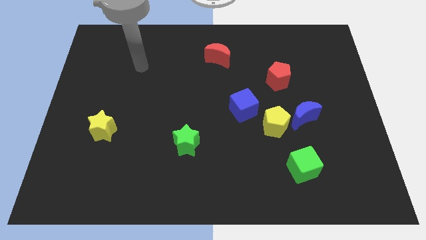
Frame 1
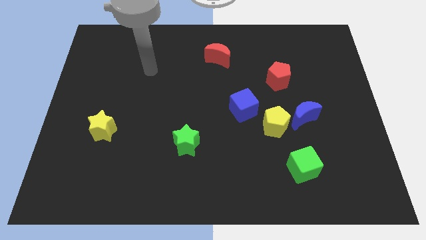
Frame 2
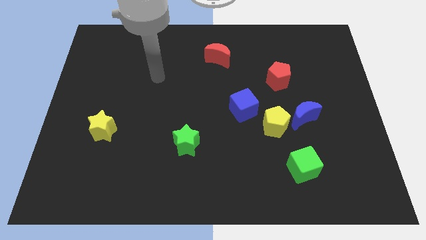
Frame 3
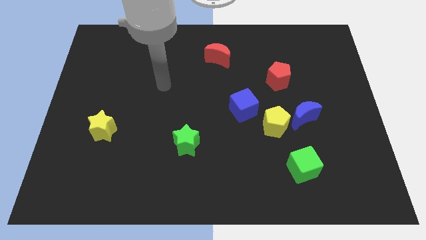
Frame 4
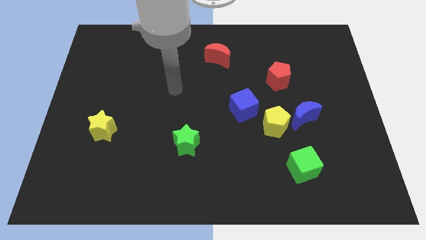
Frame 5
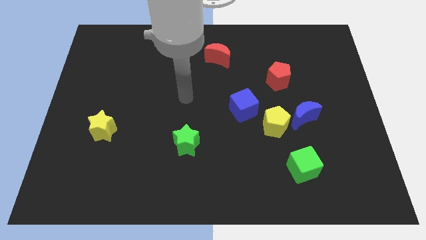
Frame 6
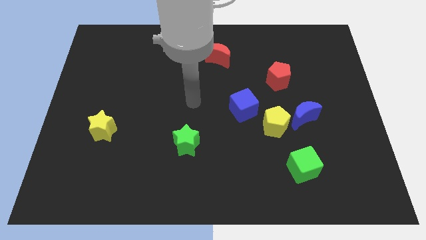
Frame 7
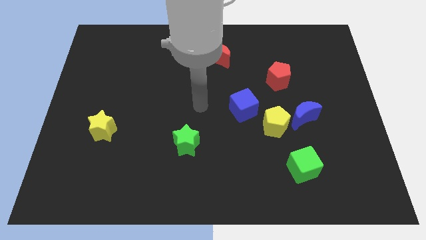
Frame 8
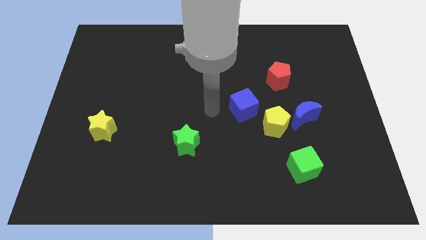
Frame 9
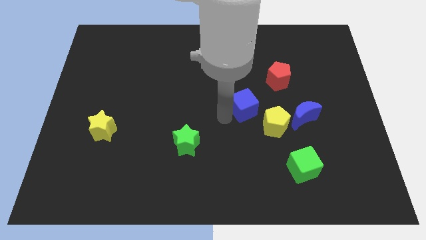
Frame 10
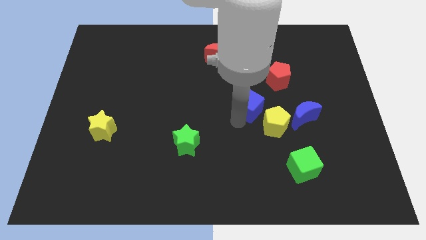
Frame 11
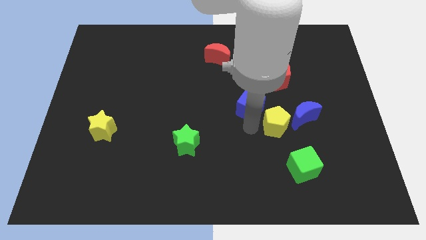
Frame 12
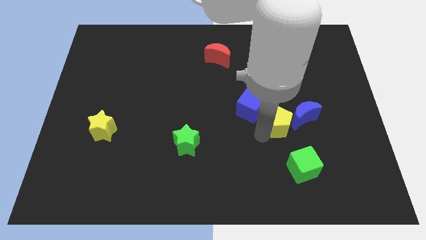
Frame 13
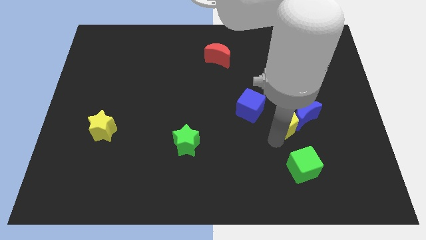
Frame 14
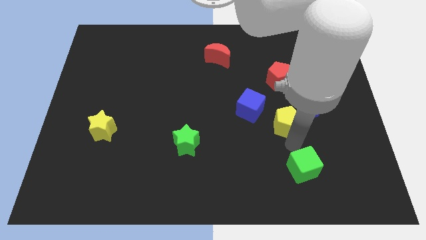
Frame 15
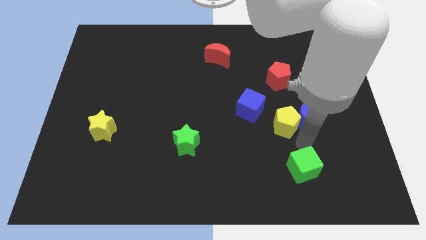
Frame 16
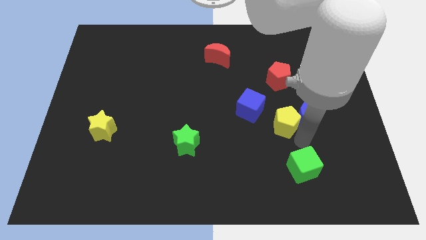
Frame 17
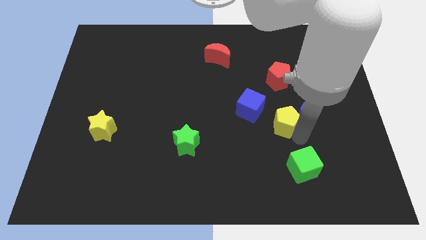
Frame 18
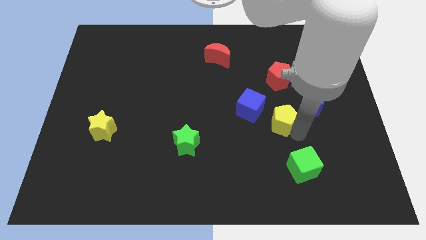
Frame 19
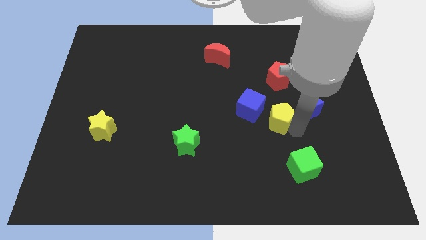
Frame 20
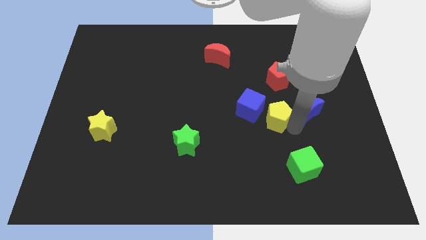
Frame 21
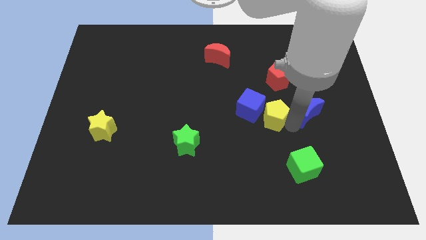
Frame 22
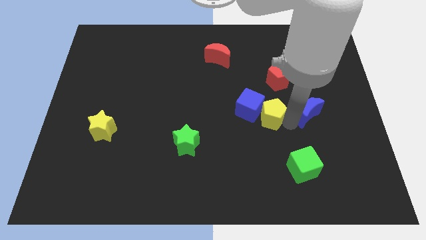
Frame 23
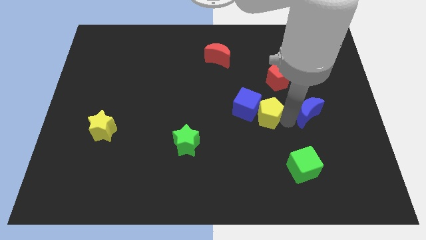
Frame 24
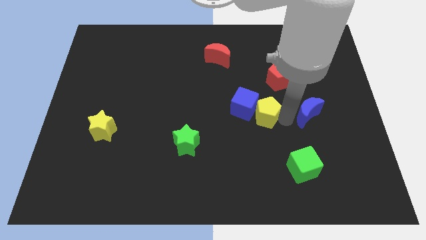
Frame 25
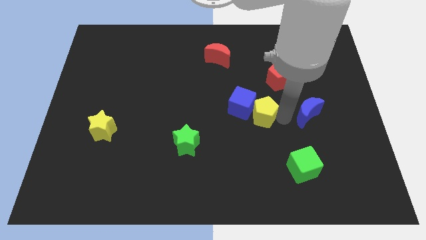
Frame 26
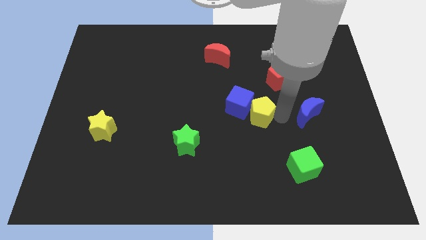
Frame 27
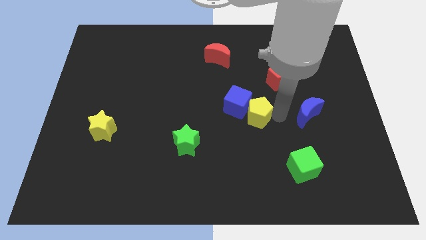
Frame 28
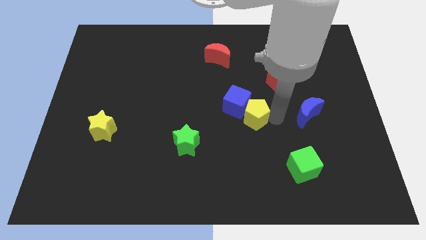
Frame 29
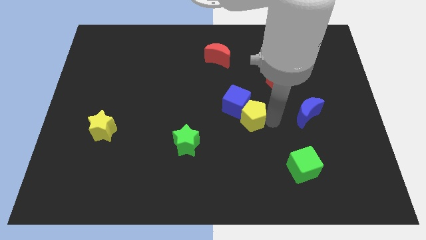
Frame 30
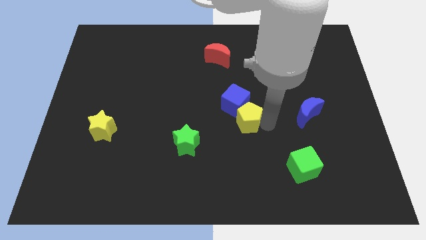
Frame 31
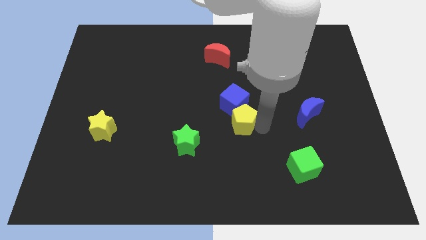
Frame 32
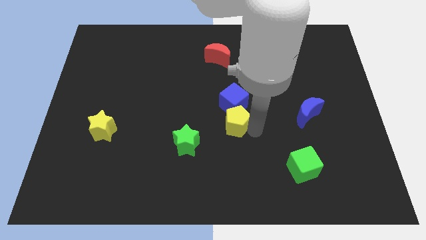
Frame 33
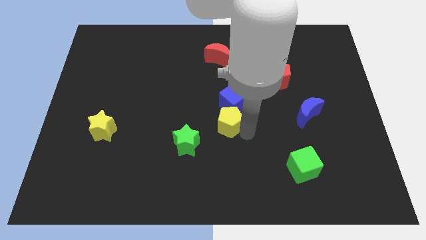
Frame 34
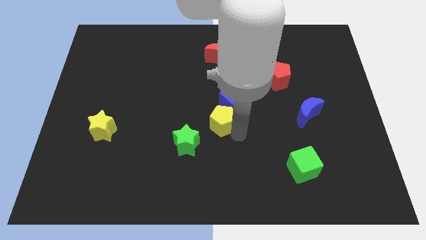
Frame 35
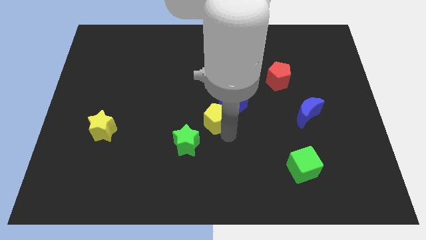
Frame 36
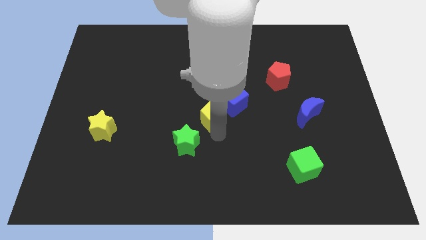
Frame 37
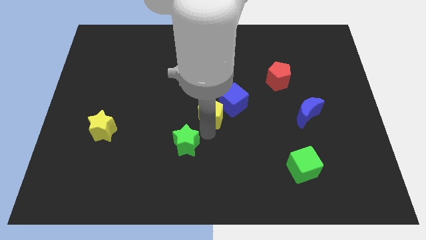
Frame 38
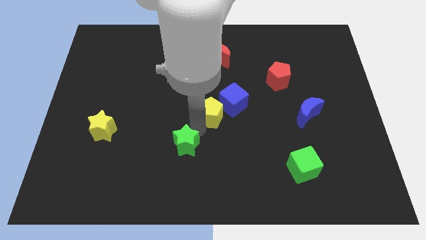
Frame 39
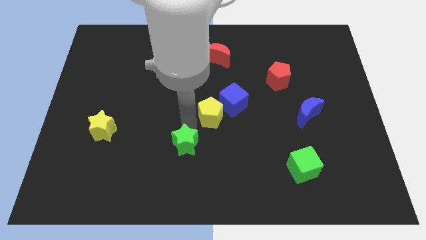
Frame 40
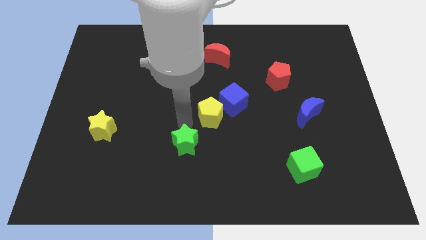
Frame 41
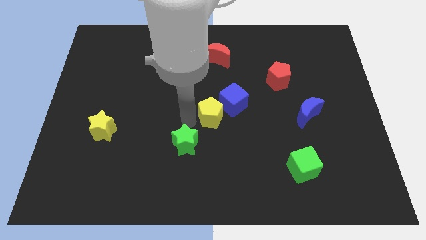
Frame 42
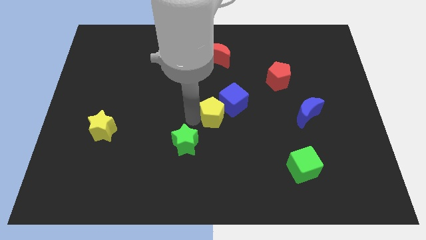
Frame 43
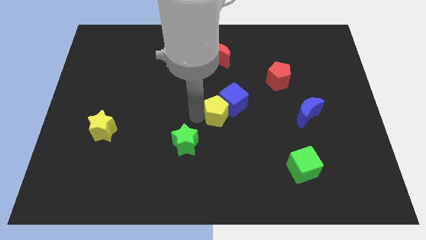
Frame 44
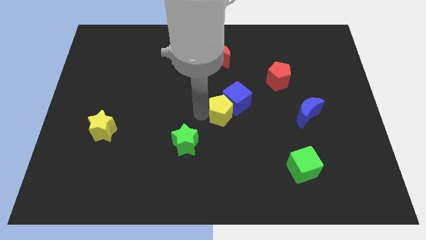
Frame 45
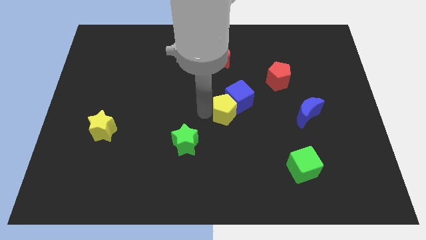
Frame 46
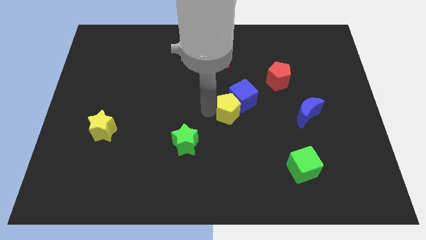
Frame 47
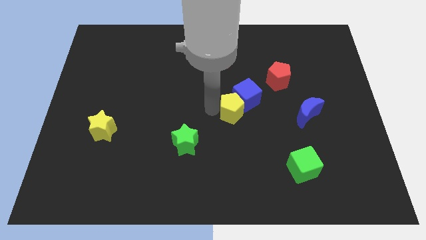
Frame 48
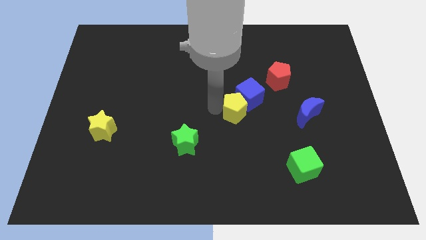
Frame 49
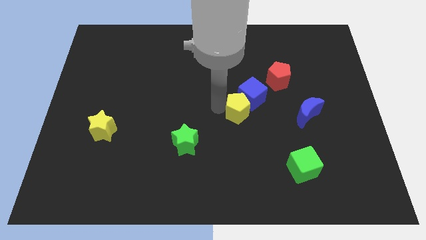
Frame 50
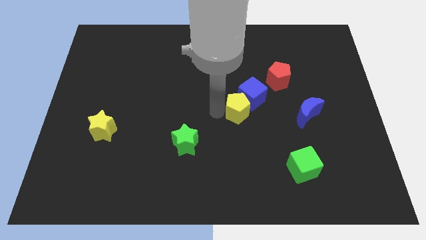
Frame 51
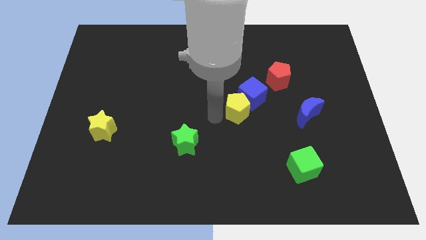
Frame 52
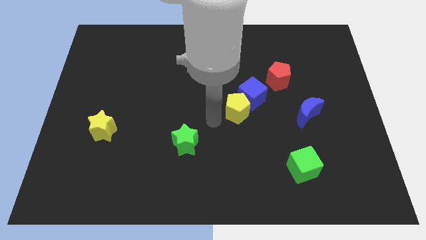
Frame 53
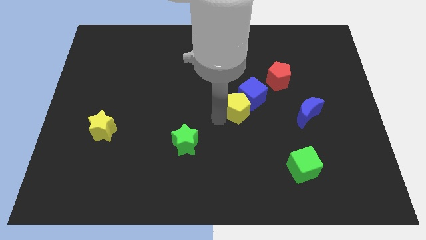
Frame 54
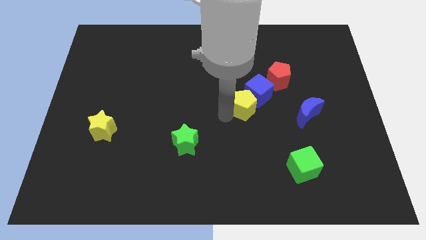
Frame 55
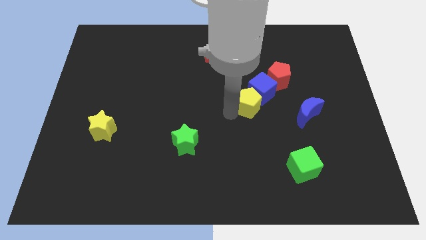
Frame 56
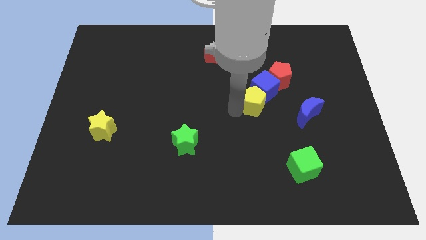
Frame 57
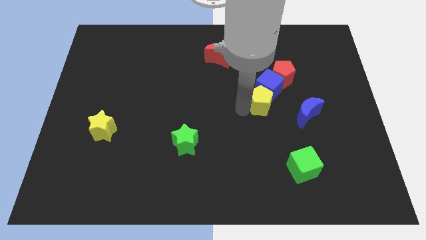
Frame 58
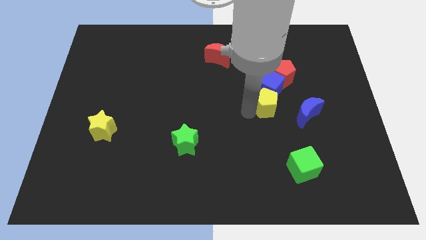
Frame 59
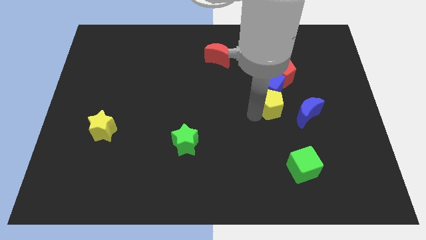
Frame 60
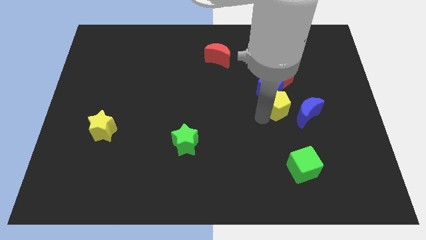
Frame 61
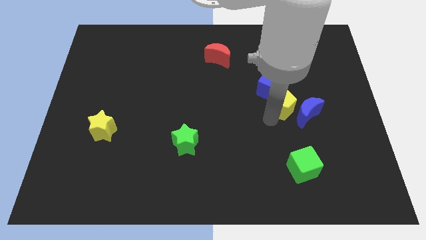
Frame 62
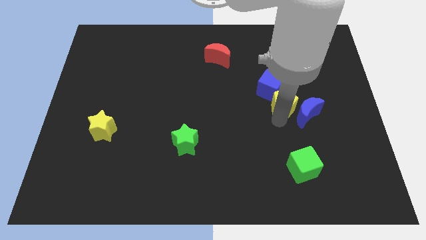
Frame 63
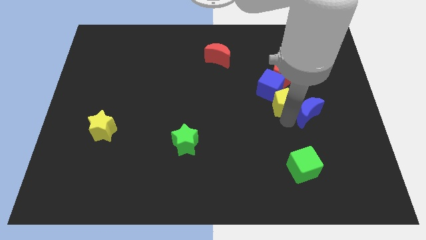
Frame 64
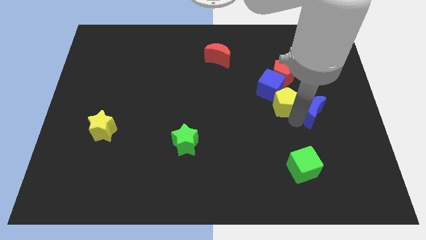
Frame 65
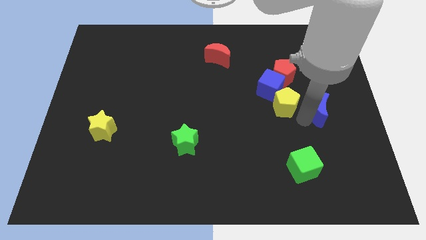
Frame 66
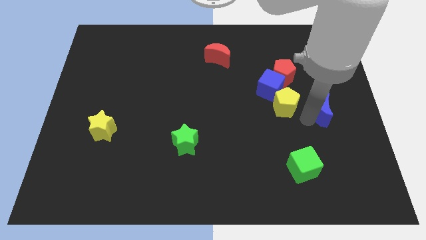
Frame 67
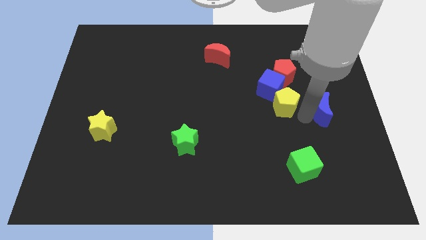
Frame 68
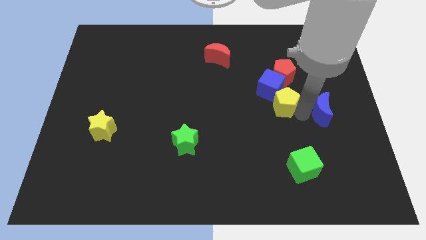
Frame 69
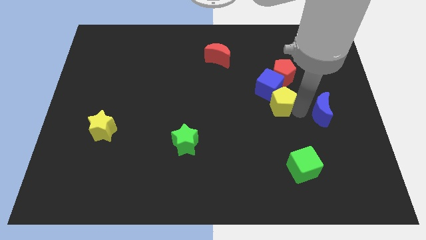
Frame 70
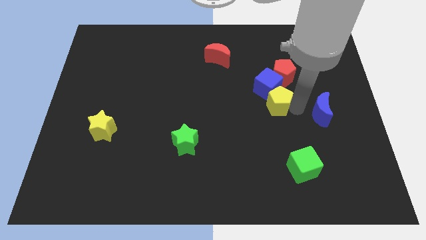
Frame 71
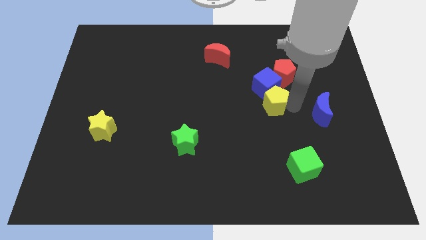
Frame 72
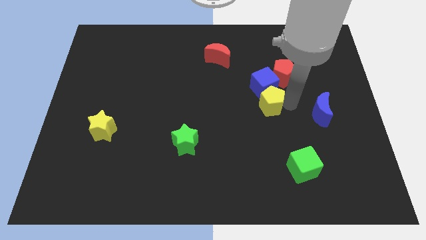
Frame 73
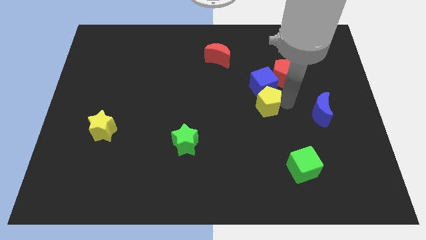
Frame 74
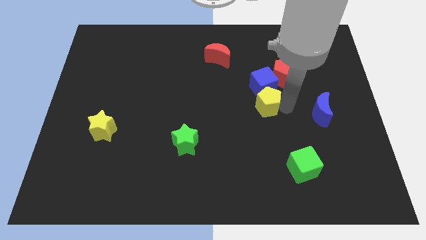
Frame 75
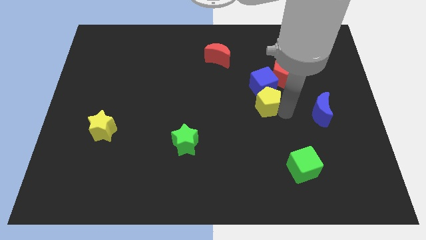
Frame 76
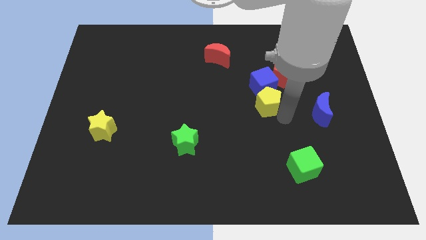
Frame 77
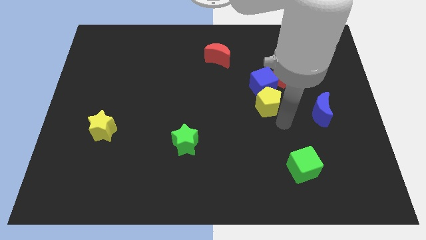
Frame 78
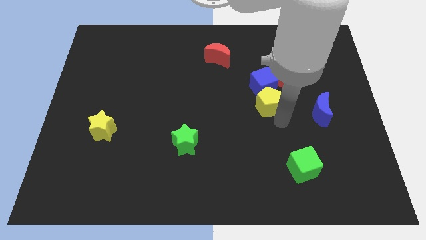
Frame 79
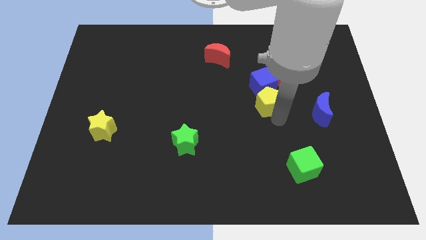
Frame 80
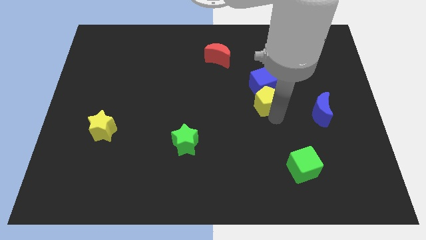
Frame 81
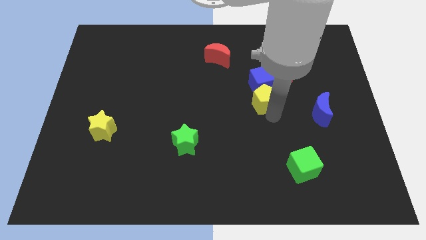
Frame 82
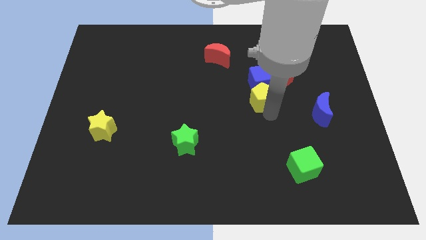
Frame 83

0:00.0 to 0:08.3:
slide the yellow pentagon a little upwards

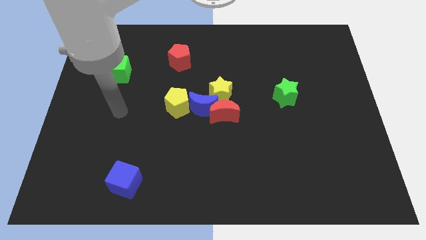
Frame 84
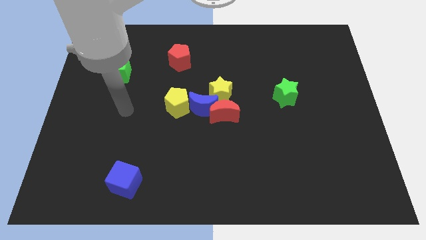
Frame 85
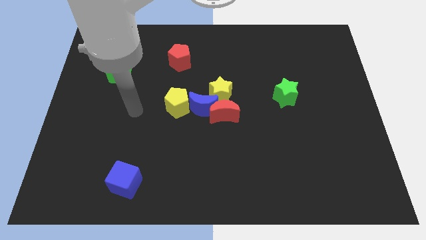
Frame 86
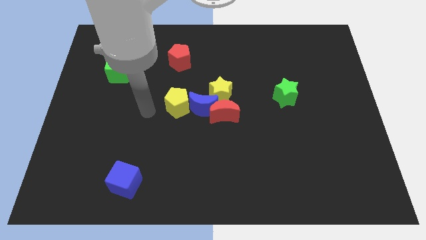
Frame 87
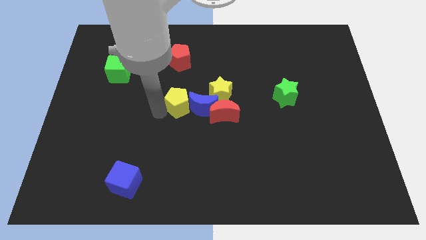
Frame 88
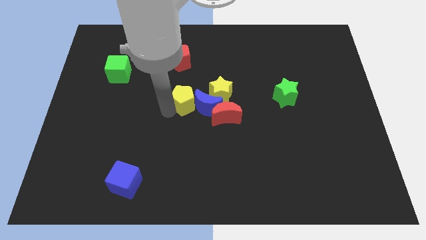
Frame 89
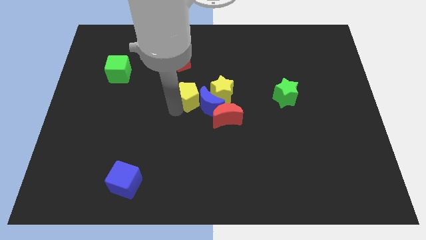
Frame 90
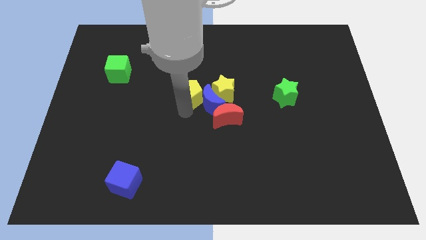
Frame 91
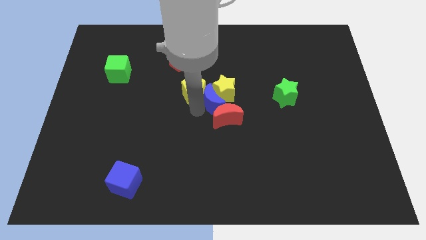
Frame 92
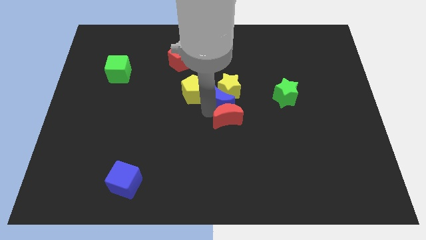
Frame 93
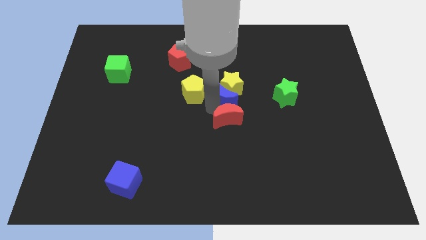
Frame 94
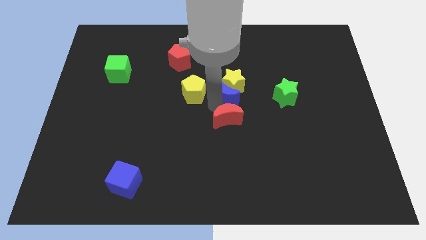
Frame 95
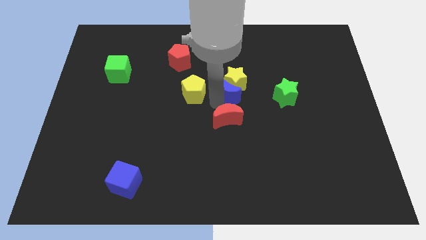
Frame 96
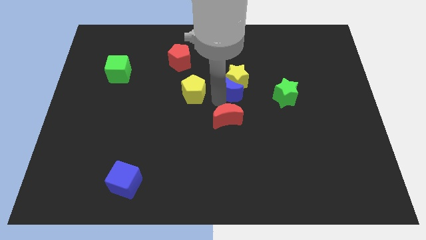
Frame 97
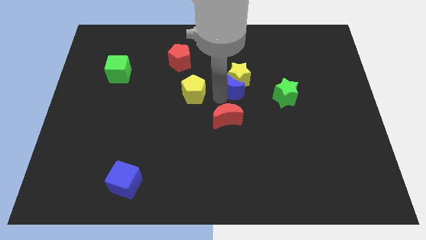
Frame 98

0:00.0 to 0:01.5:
slide the yellow star up and then right a bit
